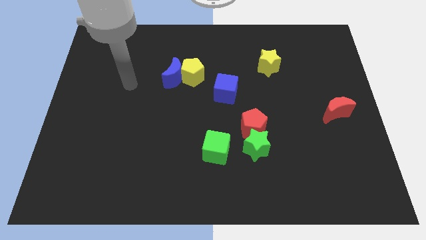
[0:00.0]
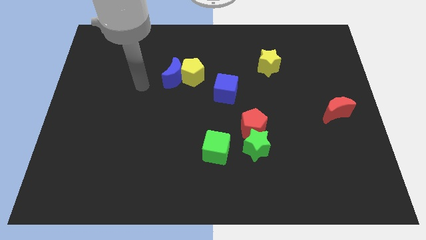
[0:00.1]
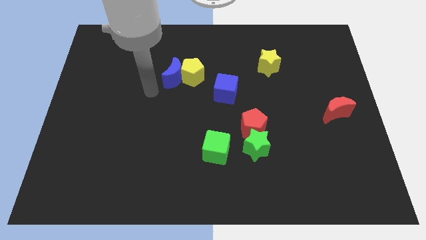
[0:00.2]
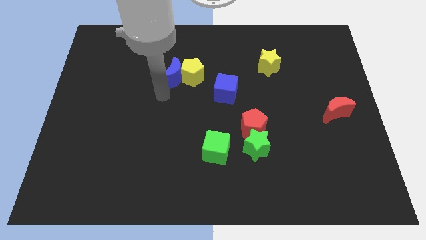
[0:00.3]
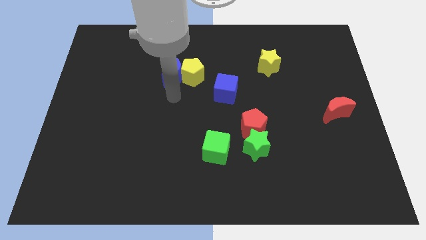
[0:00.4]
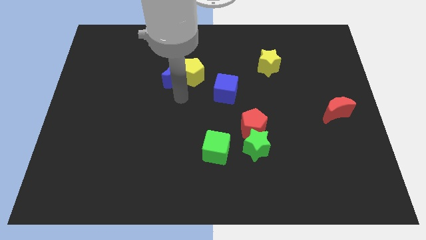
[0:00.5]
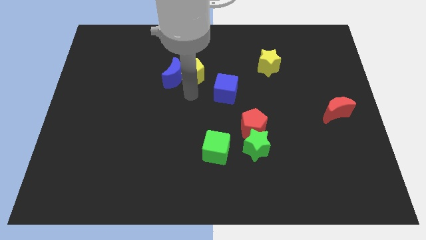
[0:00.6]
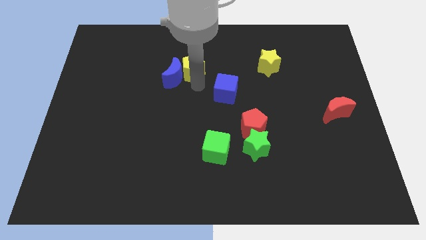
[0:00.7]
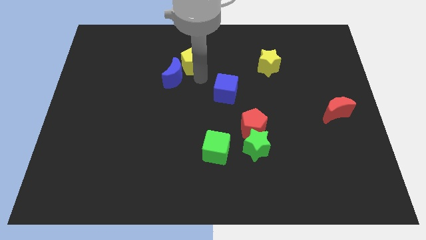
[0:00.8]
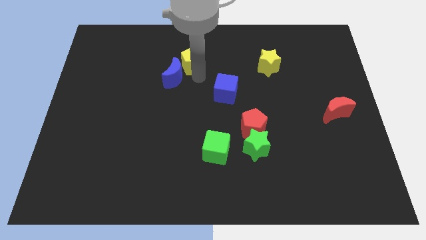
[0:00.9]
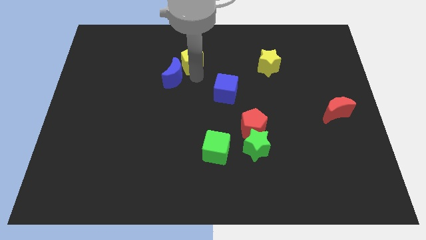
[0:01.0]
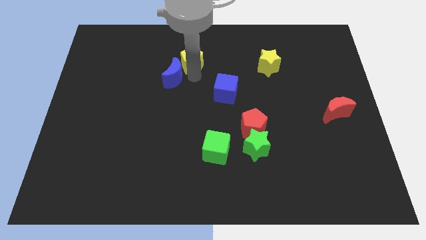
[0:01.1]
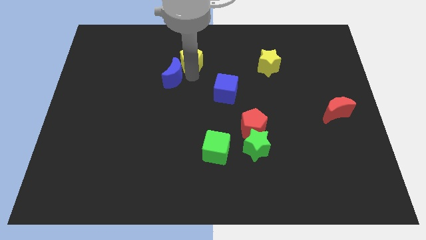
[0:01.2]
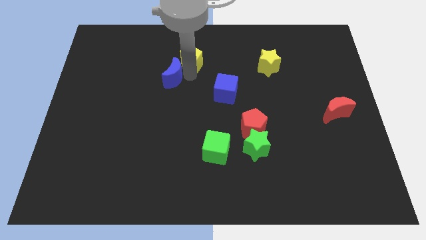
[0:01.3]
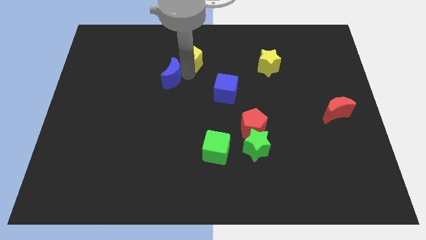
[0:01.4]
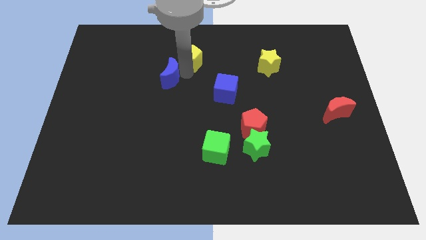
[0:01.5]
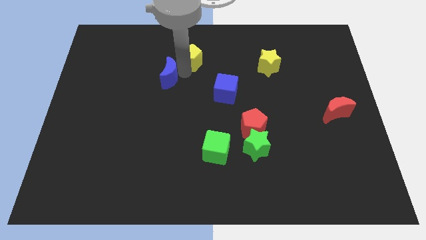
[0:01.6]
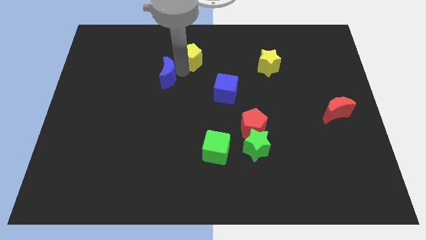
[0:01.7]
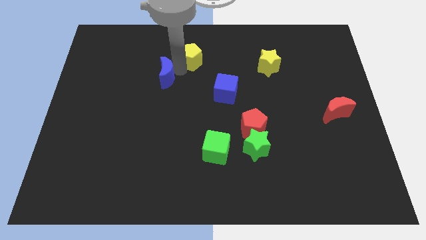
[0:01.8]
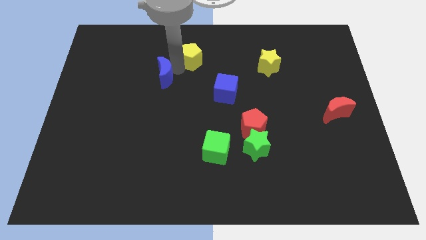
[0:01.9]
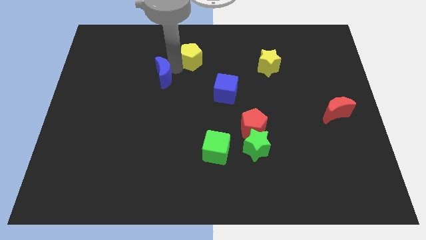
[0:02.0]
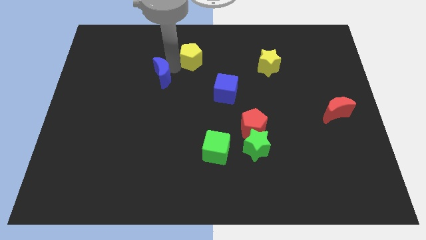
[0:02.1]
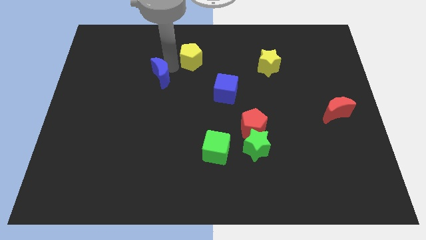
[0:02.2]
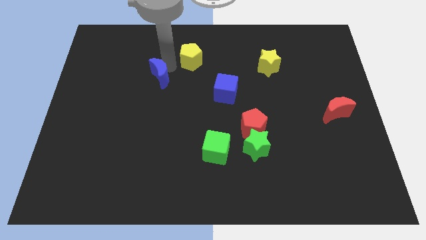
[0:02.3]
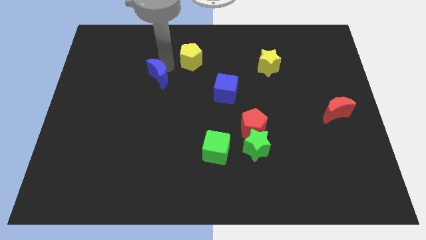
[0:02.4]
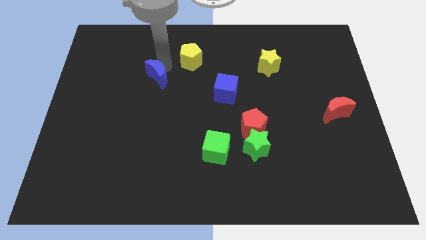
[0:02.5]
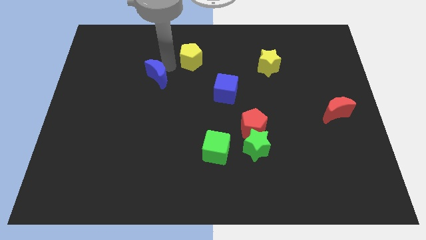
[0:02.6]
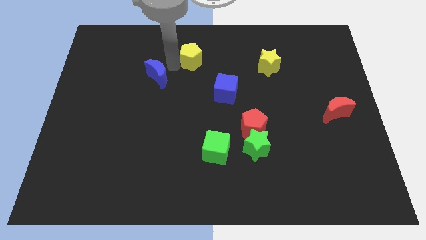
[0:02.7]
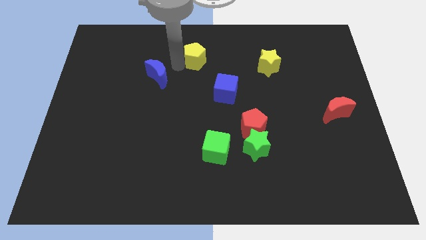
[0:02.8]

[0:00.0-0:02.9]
separate the blue moon from the yellow pentagon

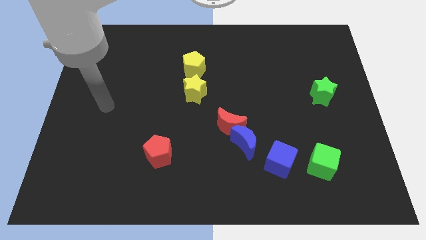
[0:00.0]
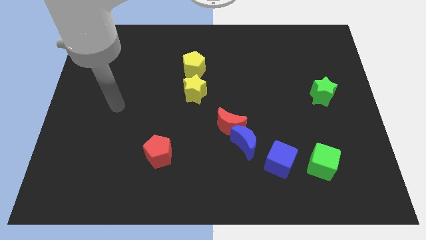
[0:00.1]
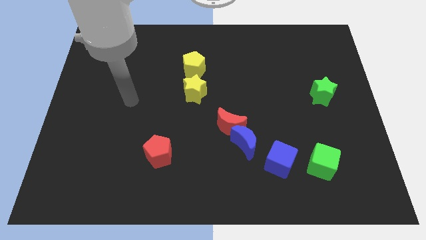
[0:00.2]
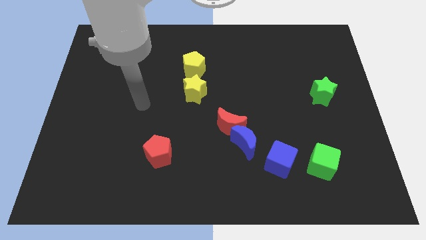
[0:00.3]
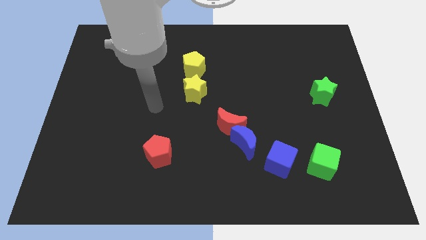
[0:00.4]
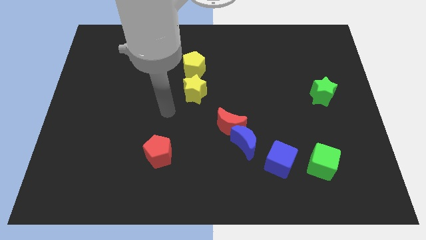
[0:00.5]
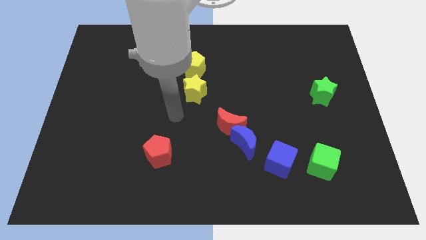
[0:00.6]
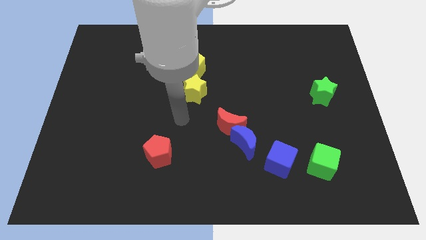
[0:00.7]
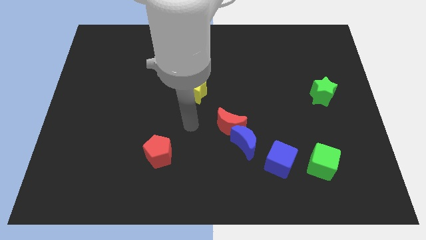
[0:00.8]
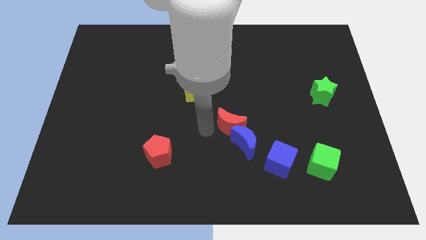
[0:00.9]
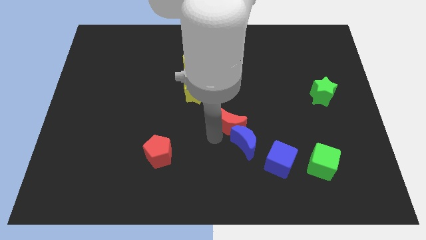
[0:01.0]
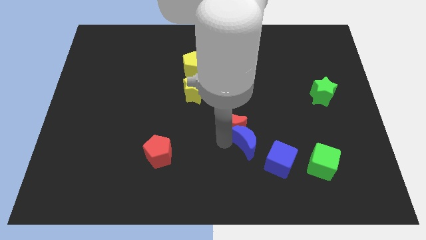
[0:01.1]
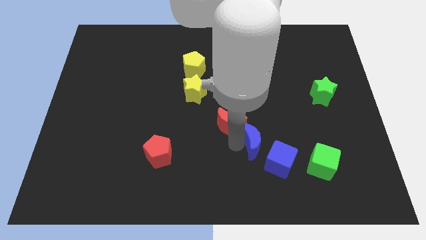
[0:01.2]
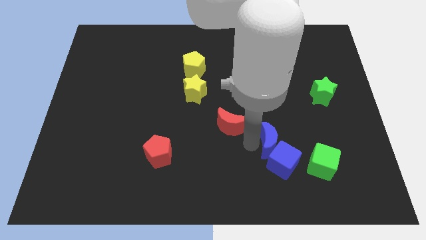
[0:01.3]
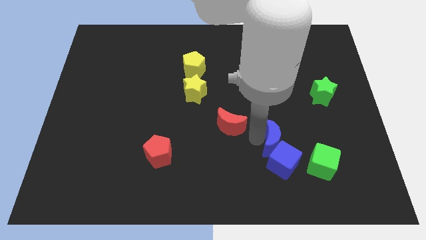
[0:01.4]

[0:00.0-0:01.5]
separate the red moon from the blue moon

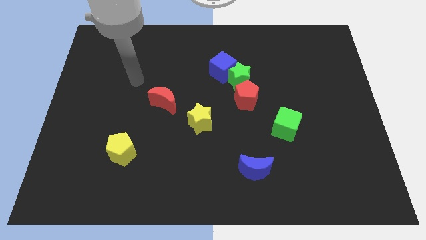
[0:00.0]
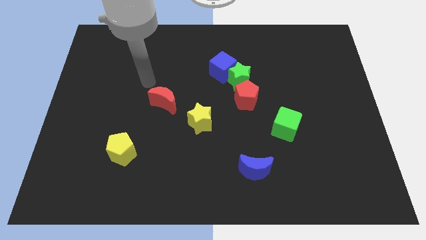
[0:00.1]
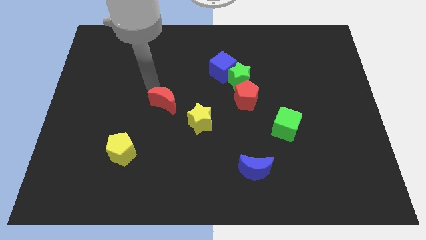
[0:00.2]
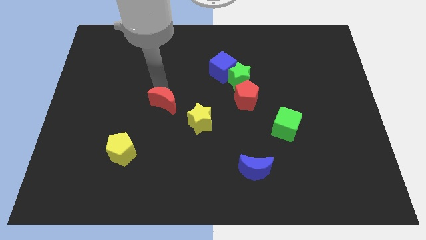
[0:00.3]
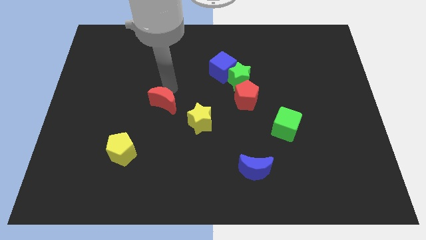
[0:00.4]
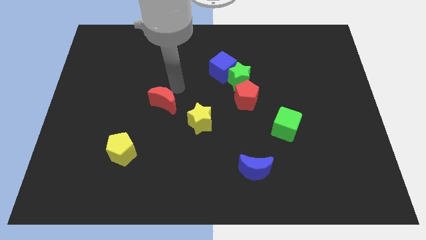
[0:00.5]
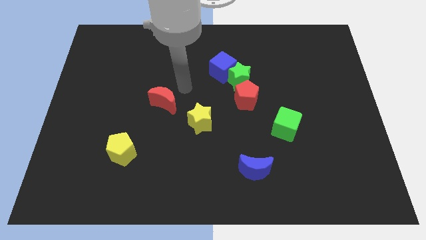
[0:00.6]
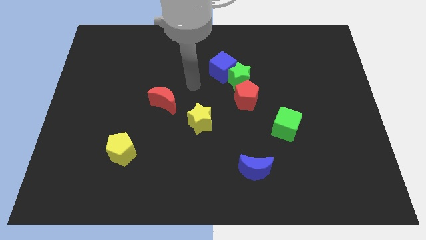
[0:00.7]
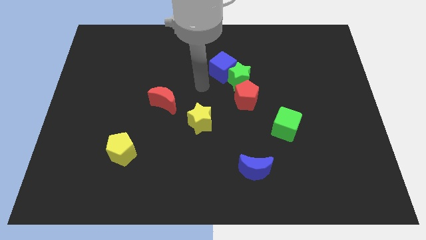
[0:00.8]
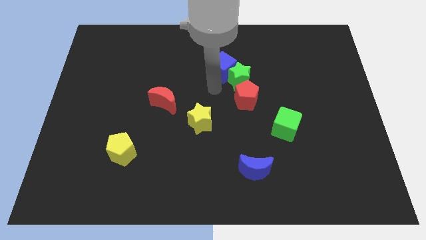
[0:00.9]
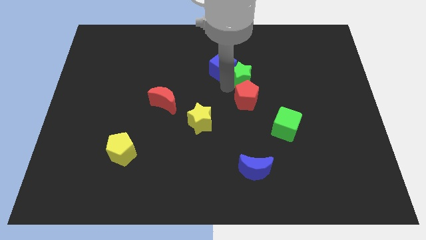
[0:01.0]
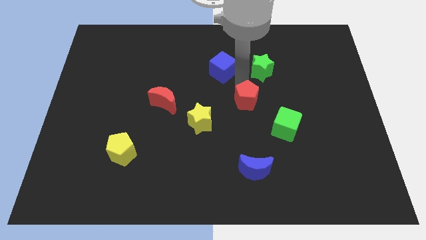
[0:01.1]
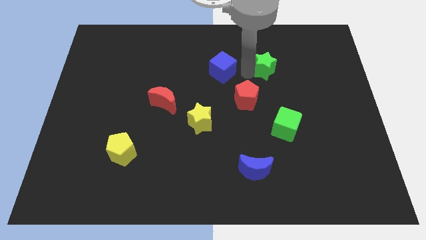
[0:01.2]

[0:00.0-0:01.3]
pull the blue cube apart from the green star

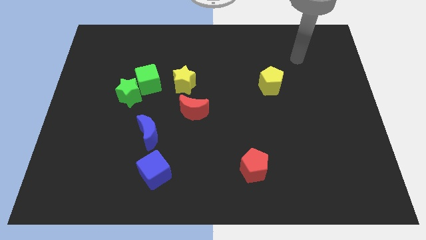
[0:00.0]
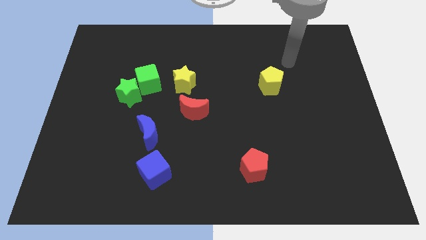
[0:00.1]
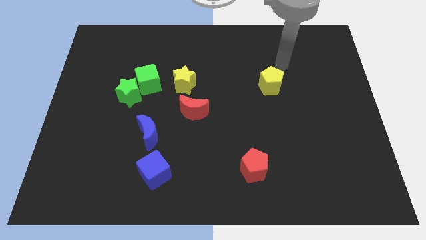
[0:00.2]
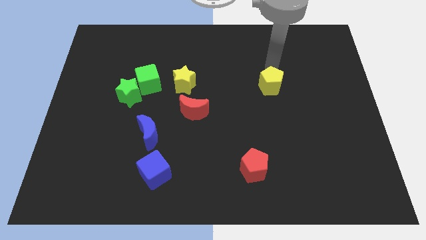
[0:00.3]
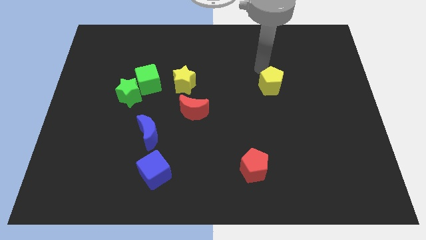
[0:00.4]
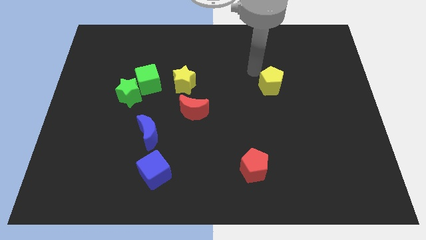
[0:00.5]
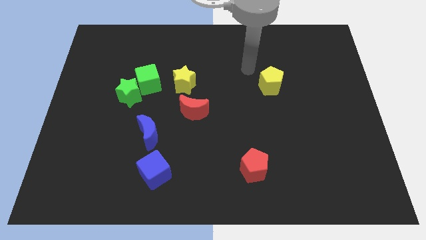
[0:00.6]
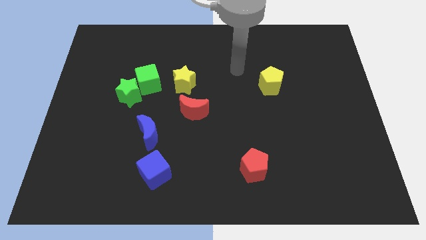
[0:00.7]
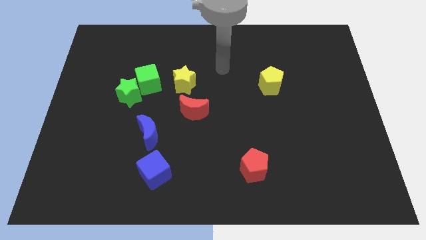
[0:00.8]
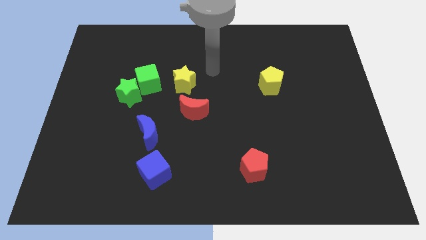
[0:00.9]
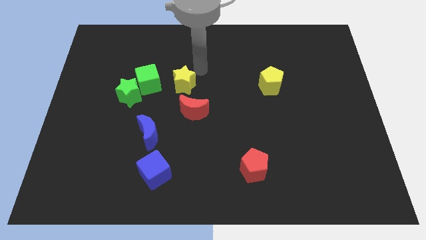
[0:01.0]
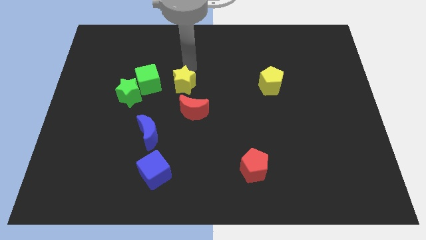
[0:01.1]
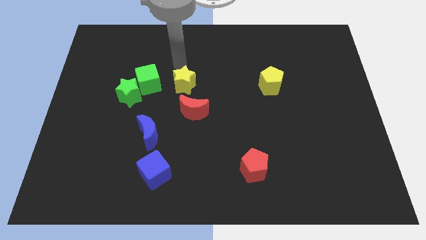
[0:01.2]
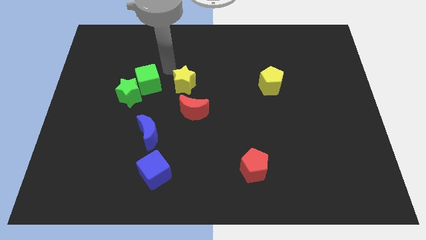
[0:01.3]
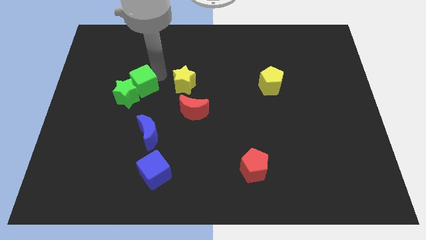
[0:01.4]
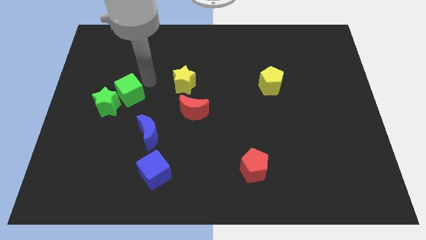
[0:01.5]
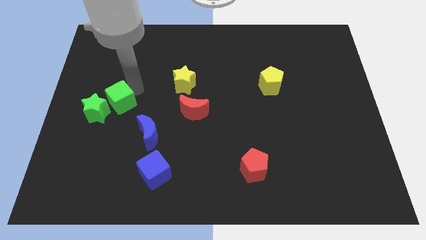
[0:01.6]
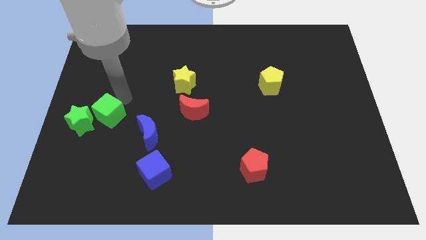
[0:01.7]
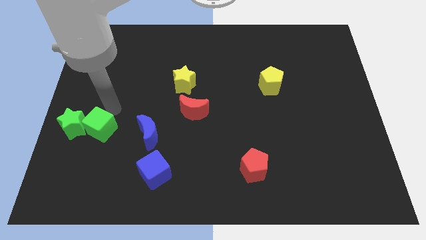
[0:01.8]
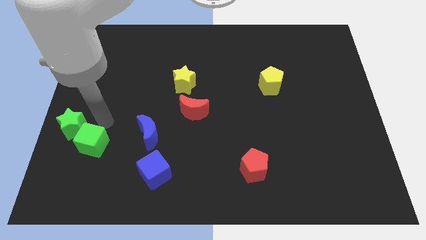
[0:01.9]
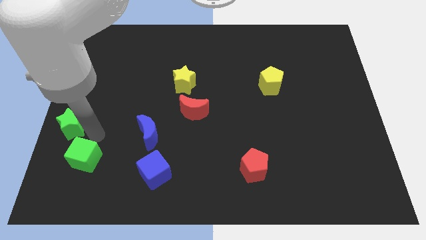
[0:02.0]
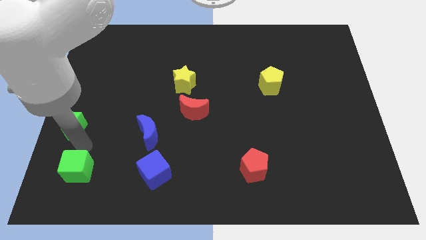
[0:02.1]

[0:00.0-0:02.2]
pull the green star apart from the green cube

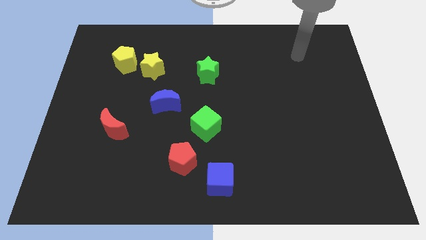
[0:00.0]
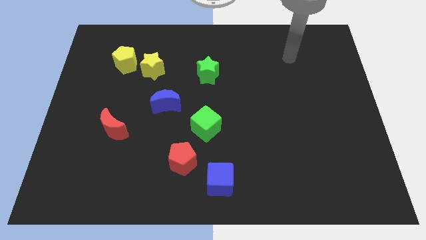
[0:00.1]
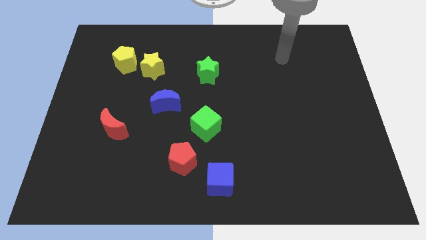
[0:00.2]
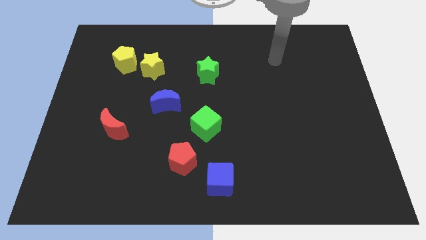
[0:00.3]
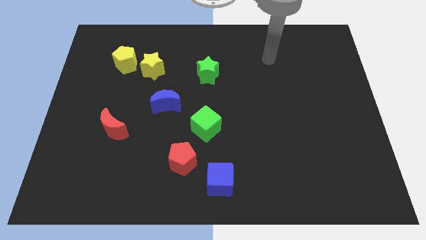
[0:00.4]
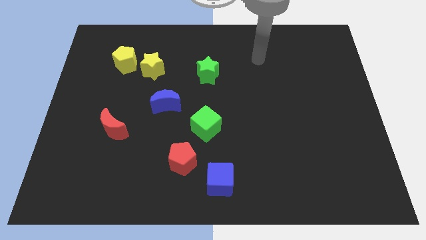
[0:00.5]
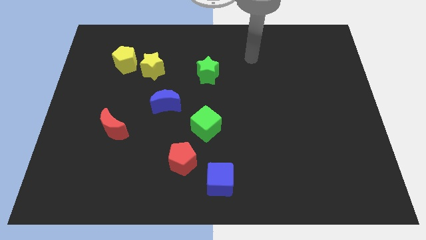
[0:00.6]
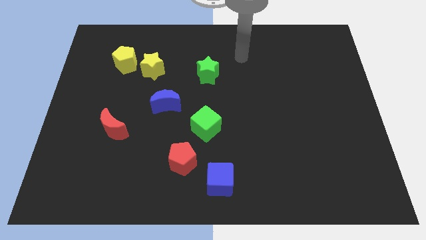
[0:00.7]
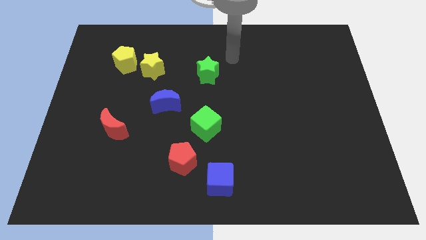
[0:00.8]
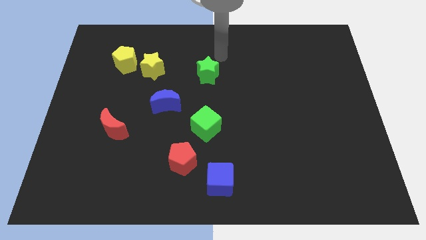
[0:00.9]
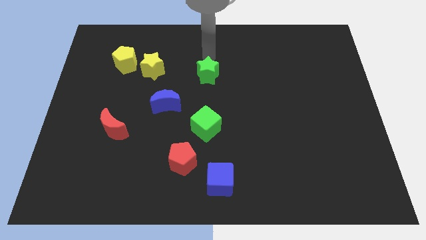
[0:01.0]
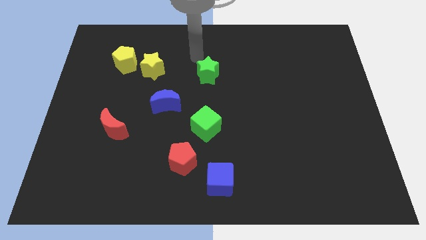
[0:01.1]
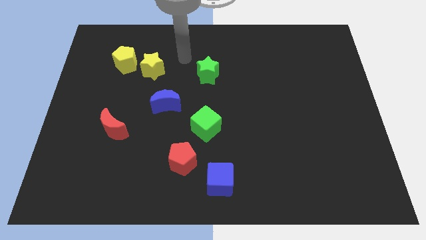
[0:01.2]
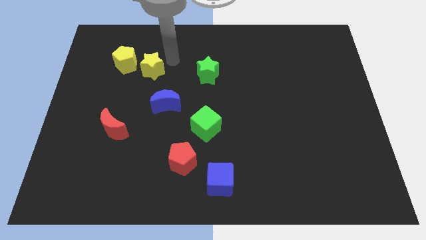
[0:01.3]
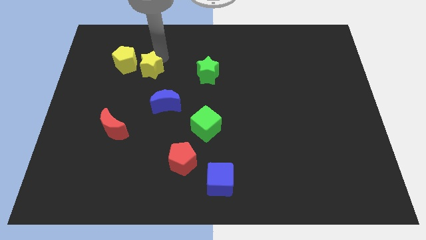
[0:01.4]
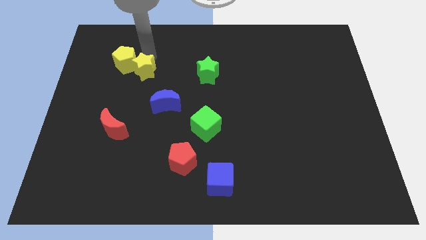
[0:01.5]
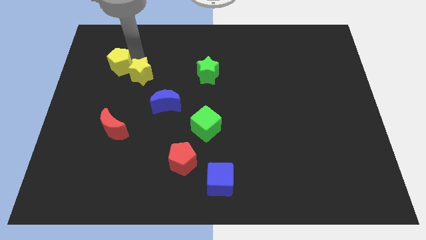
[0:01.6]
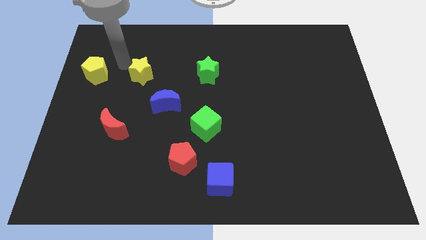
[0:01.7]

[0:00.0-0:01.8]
separate the yellow star from the yellow pentagon
